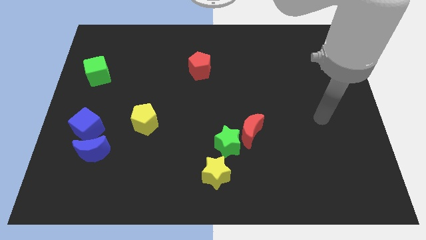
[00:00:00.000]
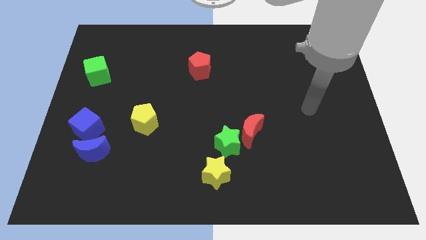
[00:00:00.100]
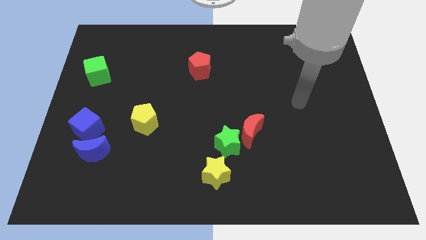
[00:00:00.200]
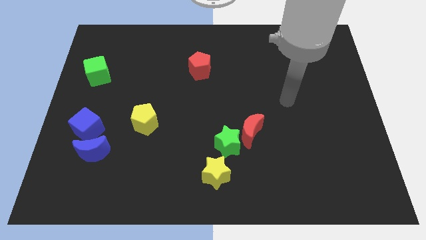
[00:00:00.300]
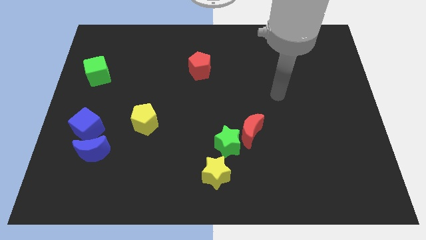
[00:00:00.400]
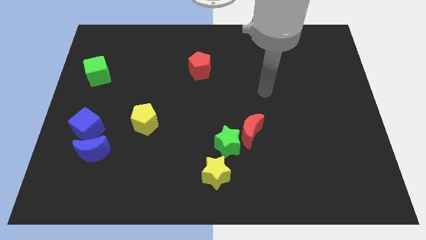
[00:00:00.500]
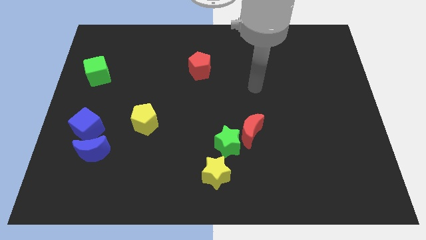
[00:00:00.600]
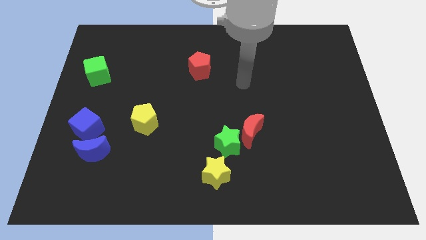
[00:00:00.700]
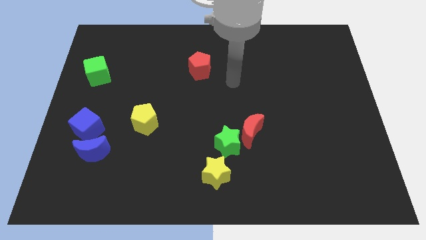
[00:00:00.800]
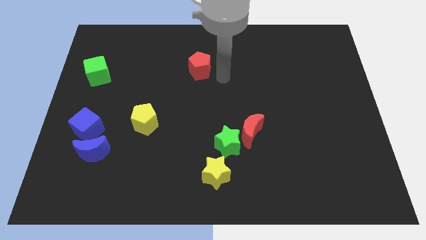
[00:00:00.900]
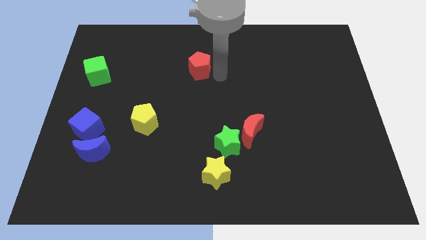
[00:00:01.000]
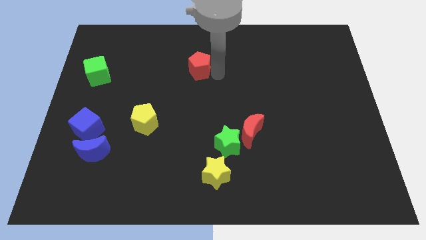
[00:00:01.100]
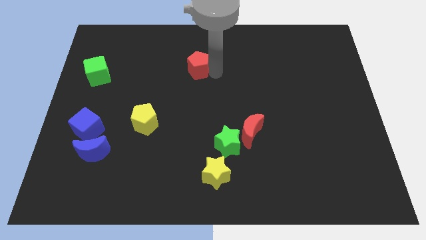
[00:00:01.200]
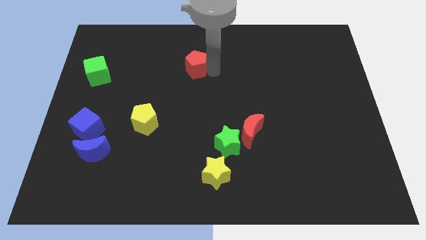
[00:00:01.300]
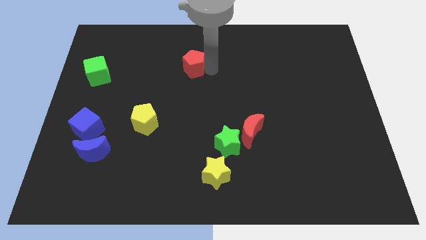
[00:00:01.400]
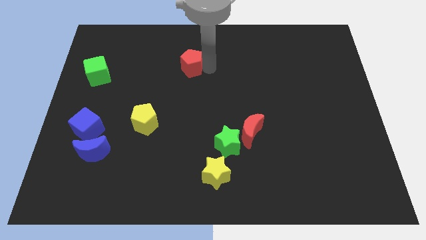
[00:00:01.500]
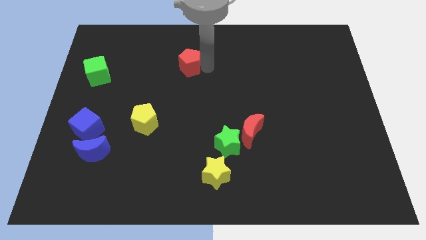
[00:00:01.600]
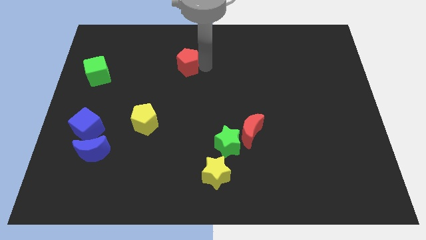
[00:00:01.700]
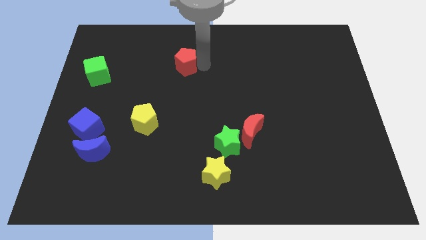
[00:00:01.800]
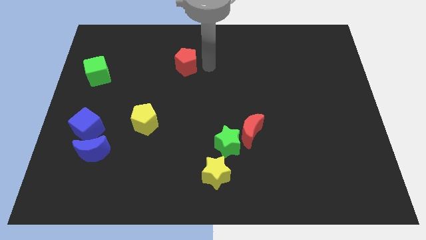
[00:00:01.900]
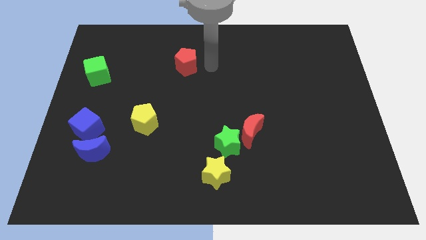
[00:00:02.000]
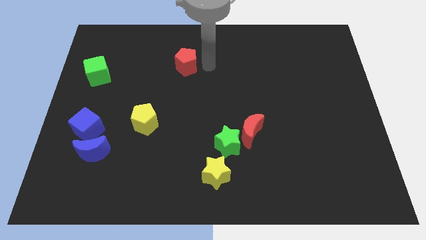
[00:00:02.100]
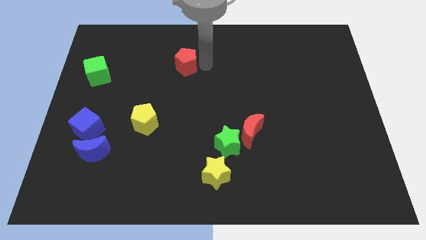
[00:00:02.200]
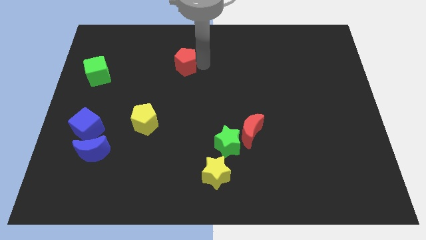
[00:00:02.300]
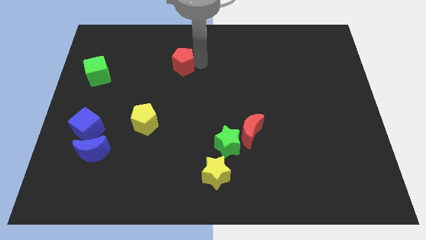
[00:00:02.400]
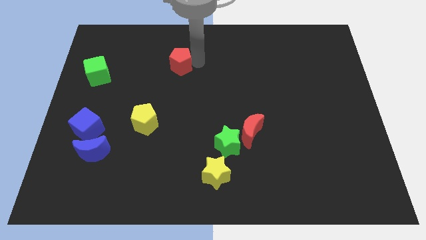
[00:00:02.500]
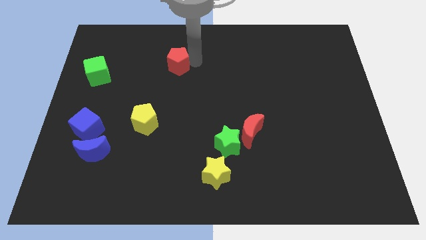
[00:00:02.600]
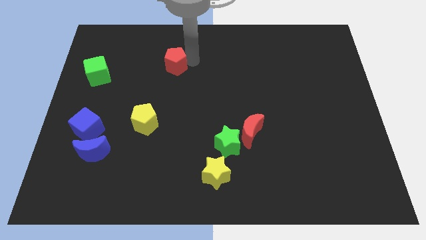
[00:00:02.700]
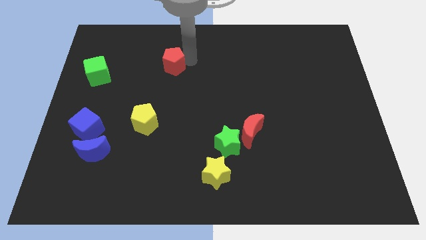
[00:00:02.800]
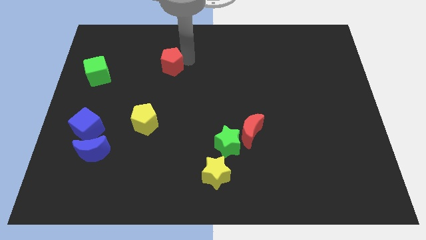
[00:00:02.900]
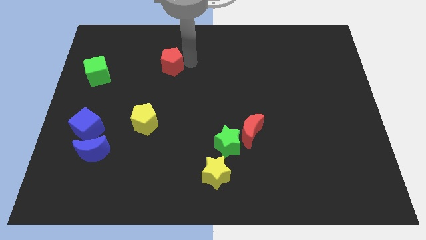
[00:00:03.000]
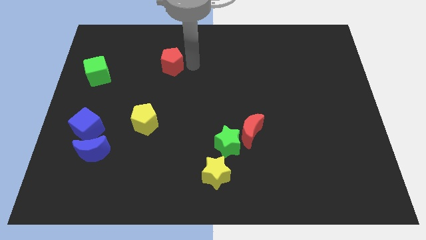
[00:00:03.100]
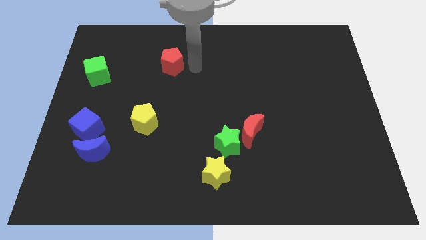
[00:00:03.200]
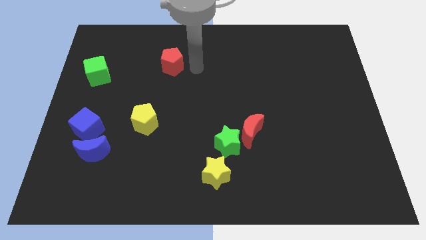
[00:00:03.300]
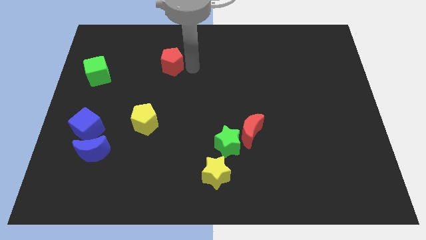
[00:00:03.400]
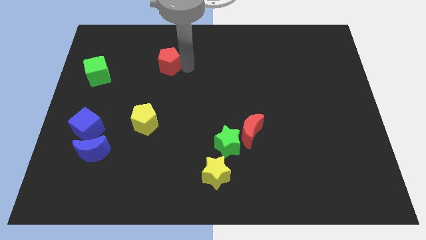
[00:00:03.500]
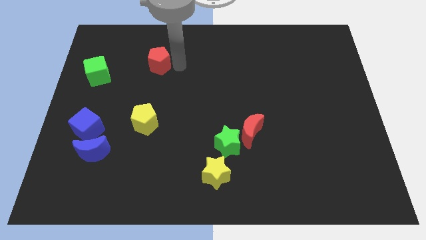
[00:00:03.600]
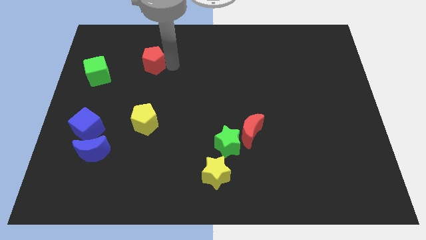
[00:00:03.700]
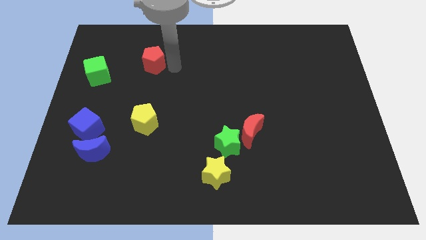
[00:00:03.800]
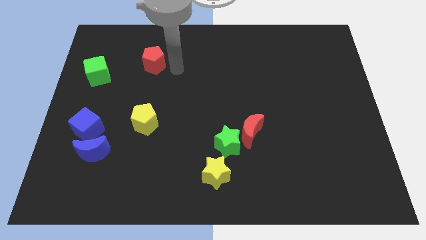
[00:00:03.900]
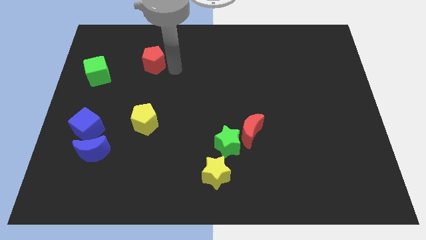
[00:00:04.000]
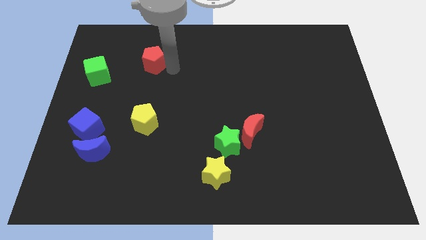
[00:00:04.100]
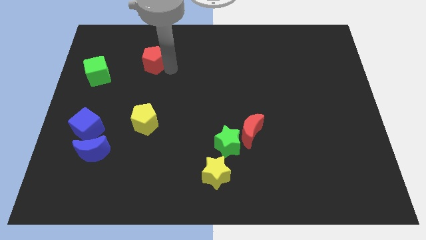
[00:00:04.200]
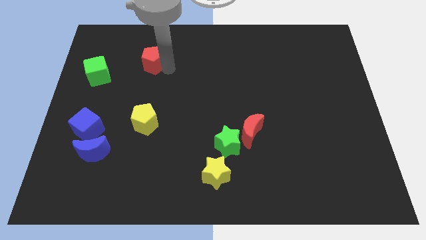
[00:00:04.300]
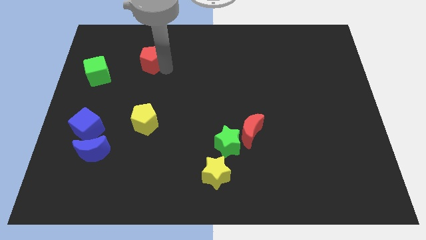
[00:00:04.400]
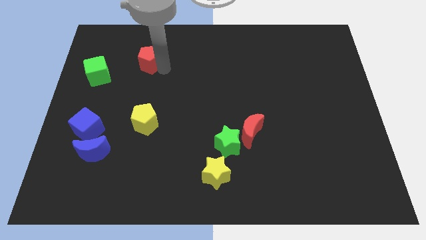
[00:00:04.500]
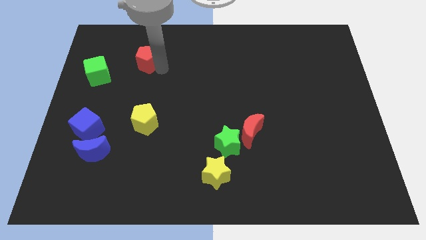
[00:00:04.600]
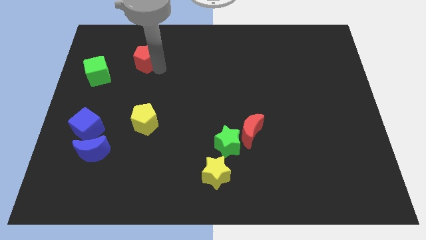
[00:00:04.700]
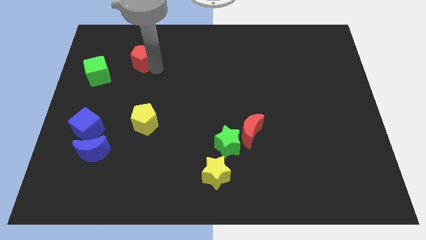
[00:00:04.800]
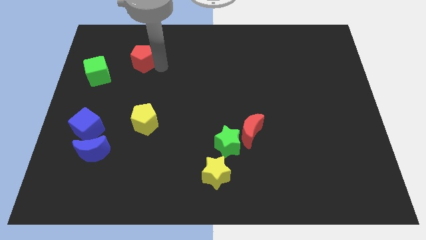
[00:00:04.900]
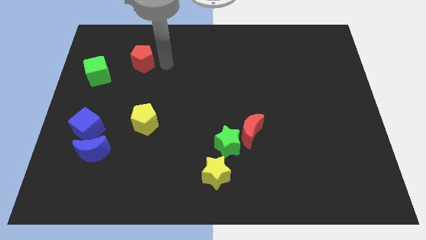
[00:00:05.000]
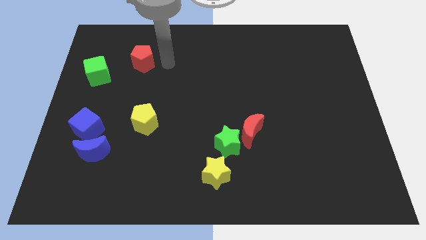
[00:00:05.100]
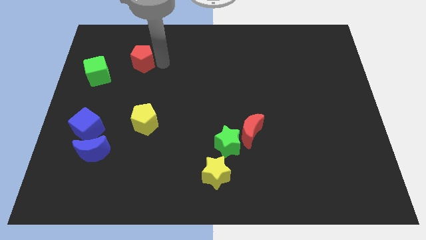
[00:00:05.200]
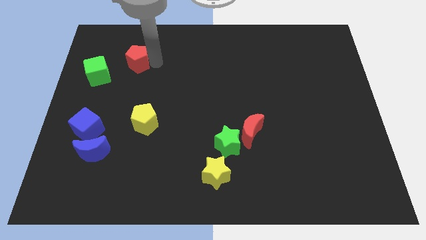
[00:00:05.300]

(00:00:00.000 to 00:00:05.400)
push the red pentagon diagonally up and to the right of the green cube

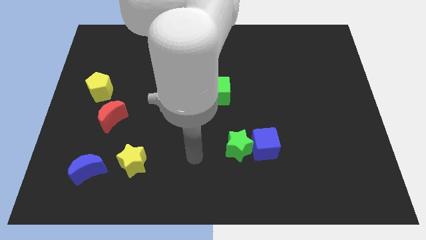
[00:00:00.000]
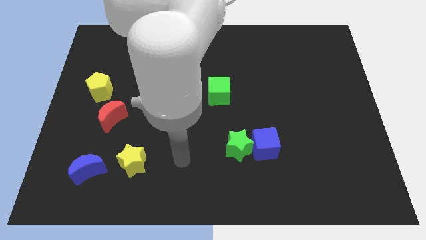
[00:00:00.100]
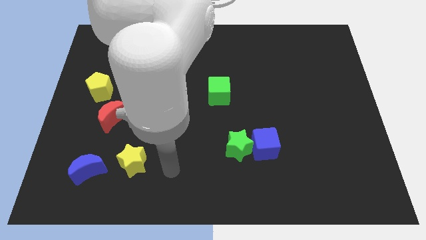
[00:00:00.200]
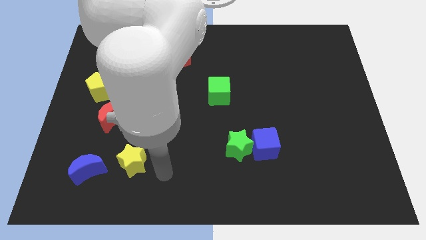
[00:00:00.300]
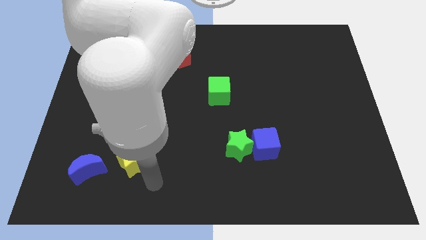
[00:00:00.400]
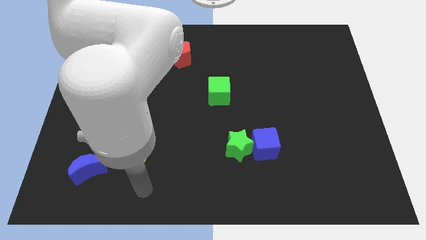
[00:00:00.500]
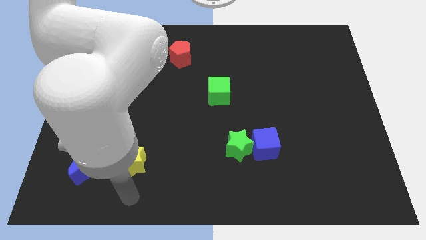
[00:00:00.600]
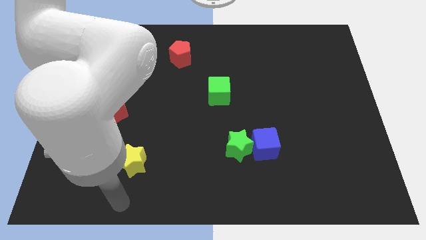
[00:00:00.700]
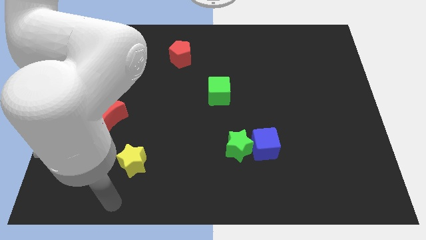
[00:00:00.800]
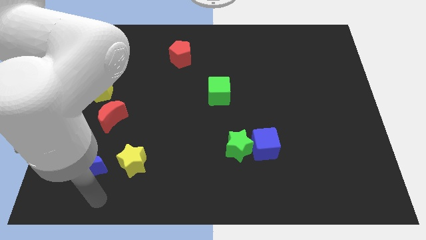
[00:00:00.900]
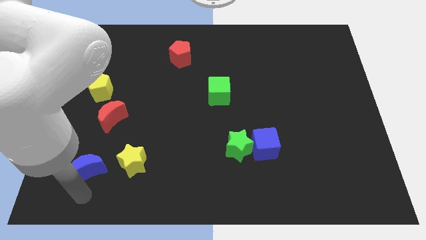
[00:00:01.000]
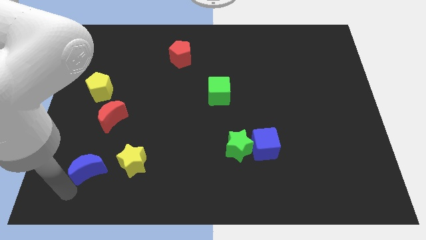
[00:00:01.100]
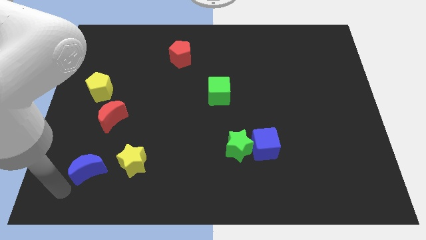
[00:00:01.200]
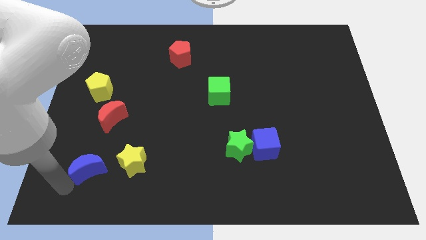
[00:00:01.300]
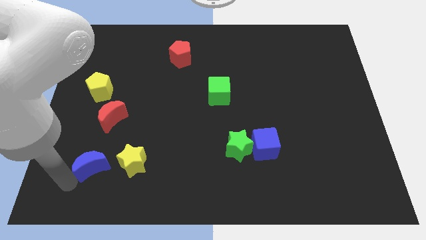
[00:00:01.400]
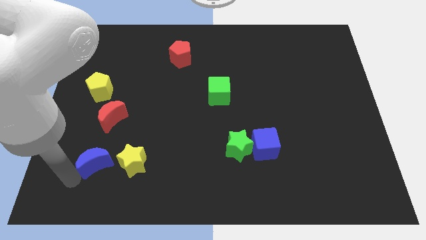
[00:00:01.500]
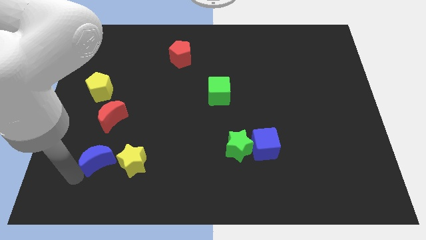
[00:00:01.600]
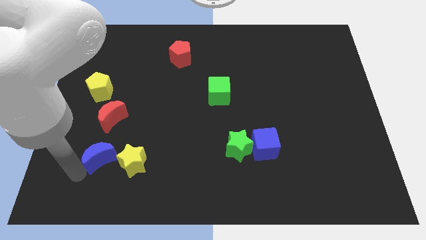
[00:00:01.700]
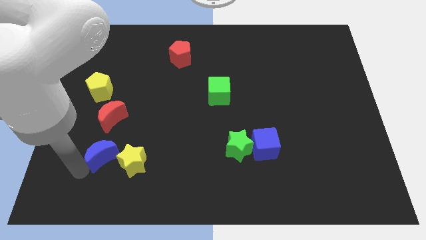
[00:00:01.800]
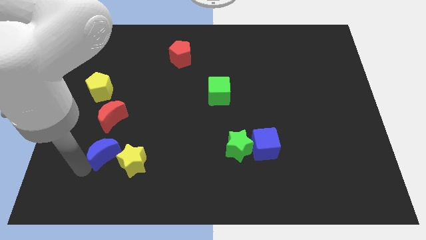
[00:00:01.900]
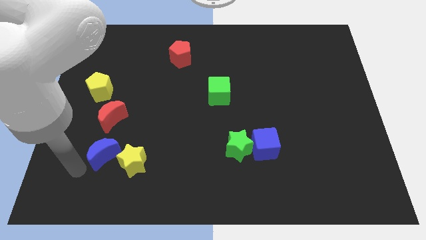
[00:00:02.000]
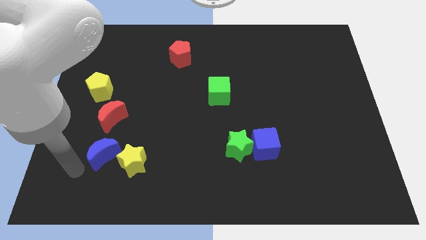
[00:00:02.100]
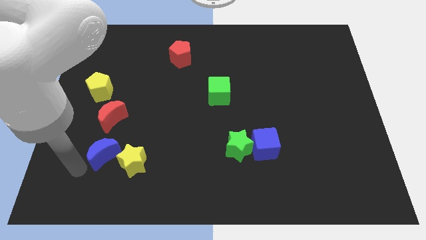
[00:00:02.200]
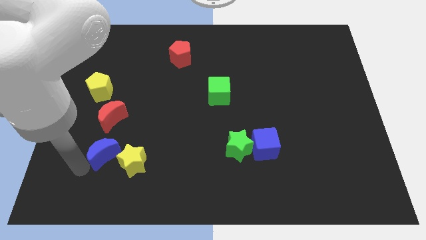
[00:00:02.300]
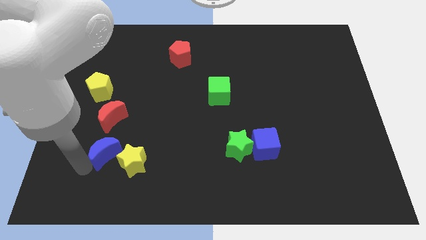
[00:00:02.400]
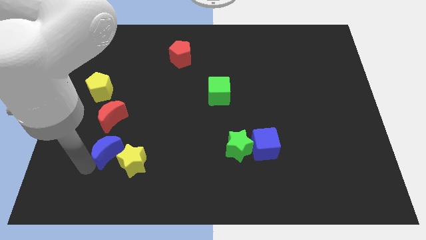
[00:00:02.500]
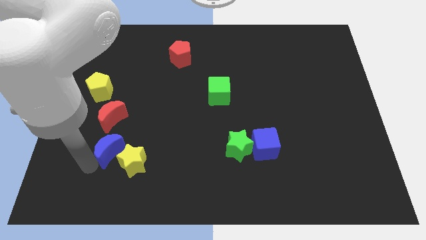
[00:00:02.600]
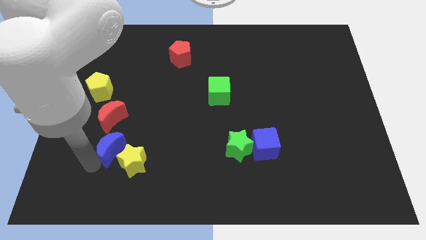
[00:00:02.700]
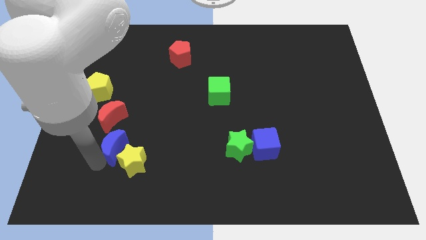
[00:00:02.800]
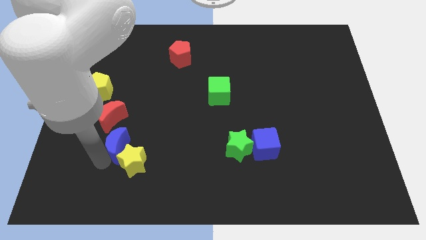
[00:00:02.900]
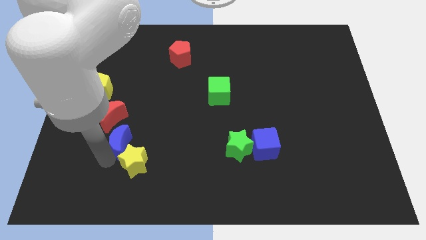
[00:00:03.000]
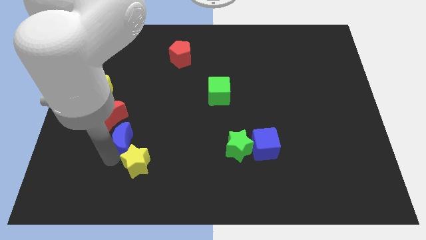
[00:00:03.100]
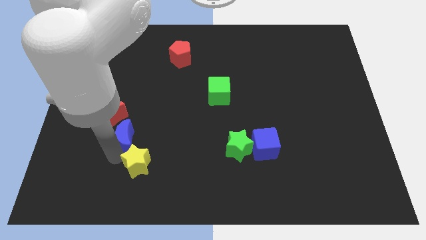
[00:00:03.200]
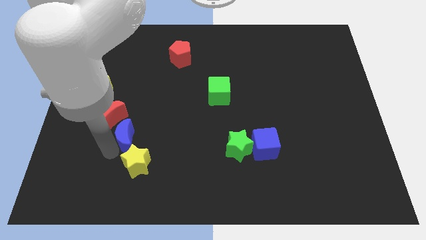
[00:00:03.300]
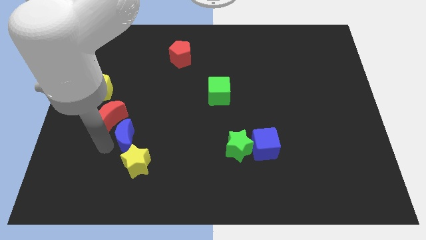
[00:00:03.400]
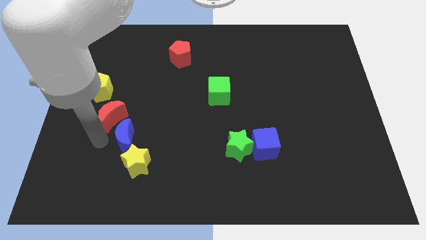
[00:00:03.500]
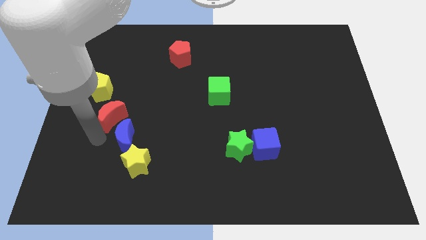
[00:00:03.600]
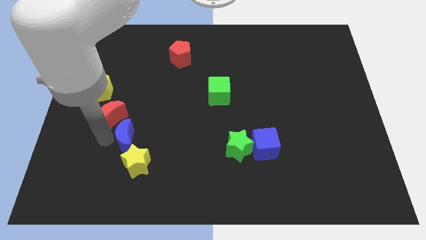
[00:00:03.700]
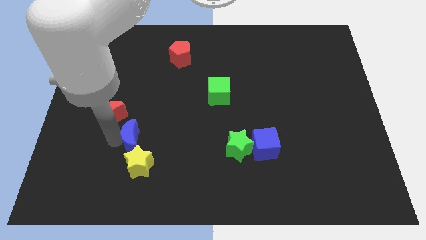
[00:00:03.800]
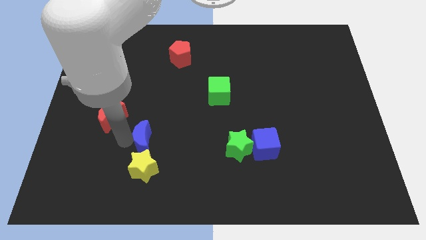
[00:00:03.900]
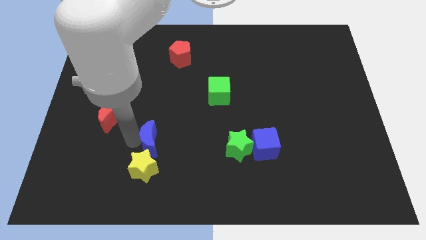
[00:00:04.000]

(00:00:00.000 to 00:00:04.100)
slide the blue moon to the top right side of the yellow star
